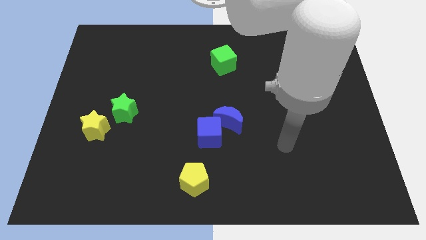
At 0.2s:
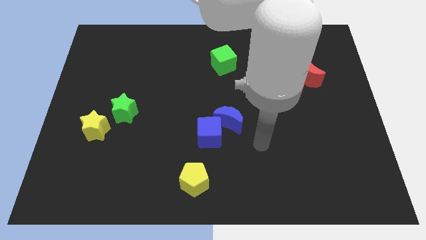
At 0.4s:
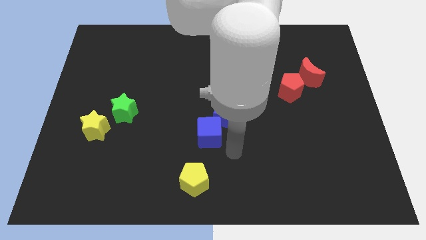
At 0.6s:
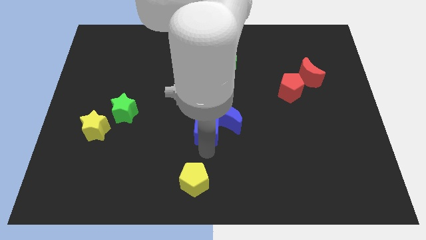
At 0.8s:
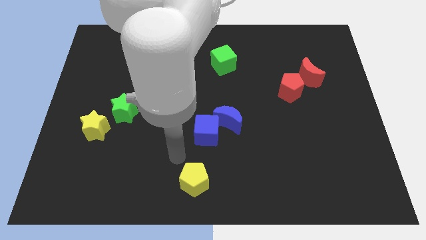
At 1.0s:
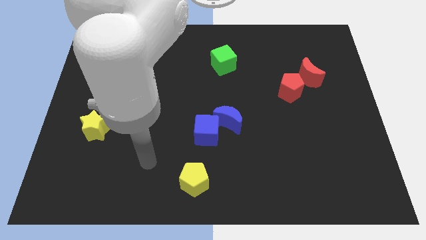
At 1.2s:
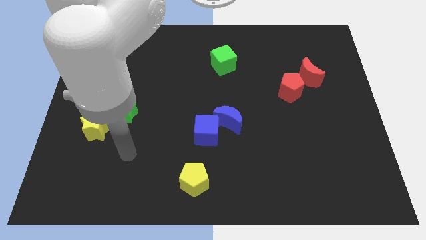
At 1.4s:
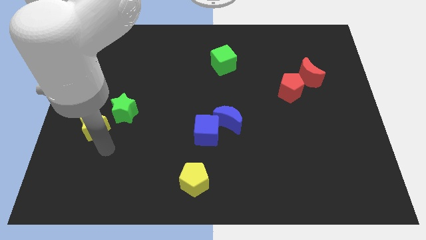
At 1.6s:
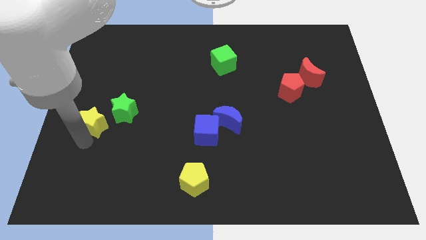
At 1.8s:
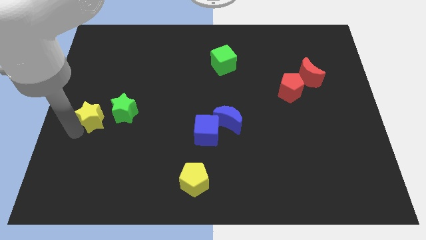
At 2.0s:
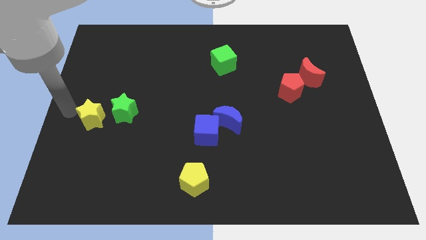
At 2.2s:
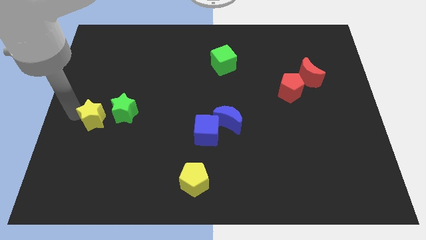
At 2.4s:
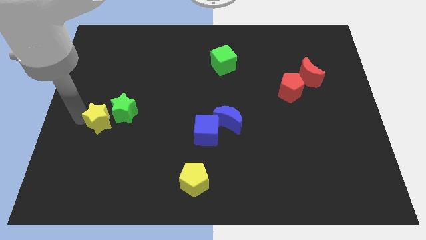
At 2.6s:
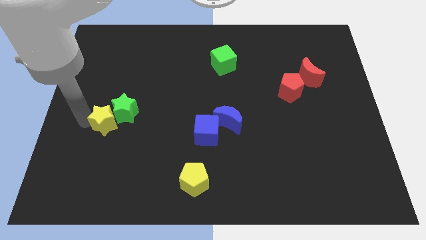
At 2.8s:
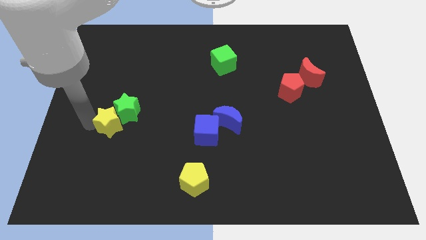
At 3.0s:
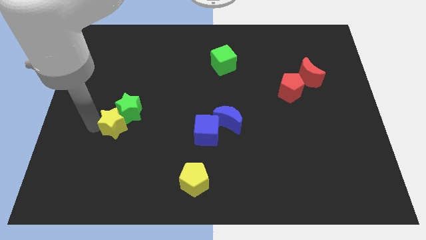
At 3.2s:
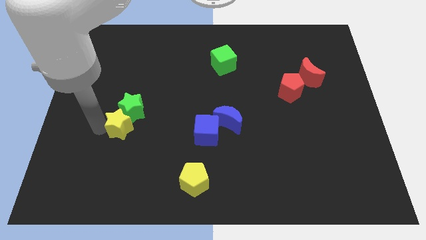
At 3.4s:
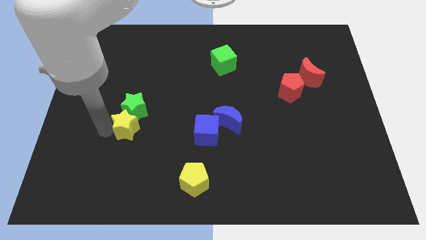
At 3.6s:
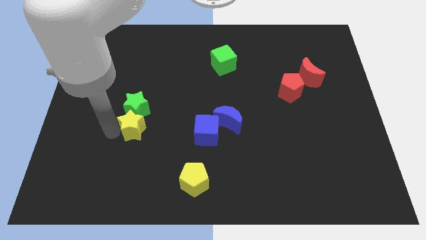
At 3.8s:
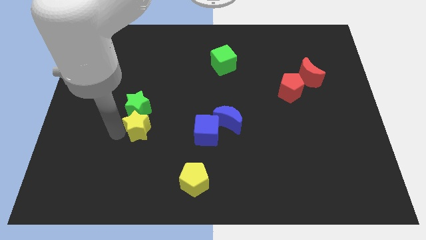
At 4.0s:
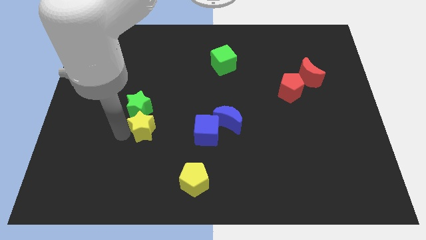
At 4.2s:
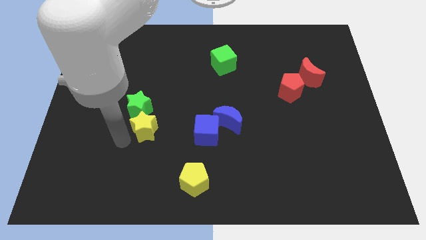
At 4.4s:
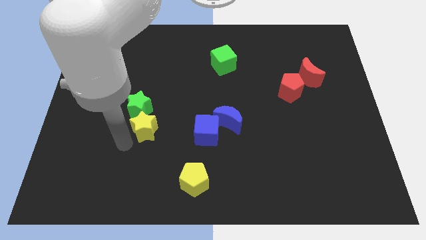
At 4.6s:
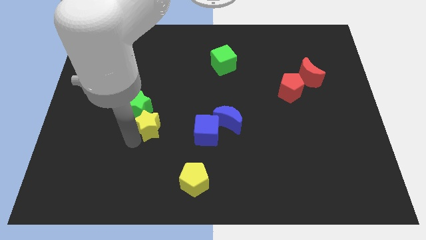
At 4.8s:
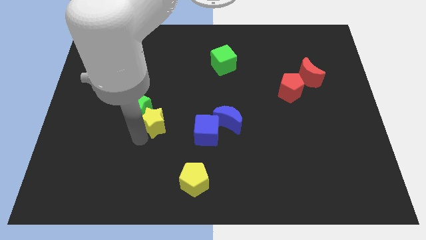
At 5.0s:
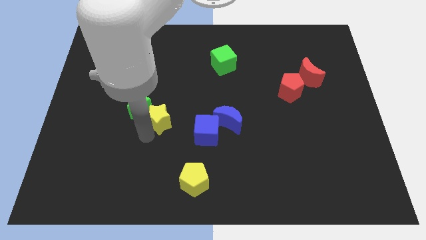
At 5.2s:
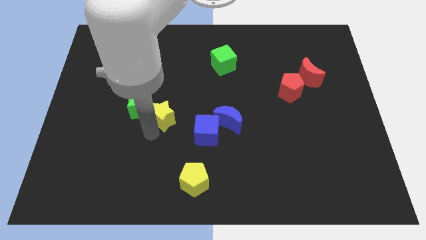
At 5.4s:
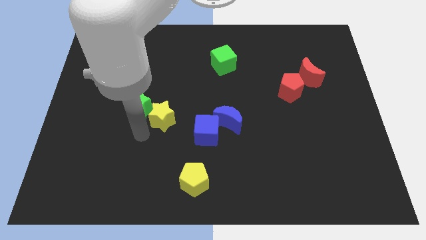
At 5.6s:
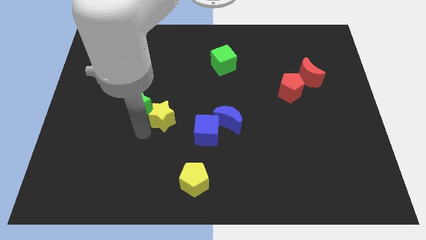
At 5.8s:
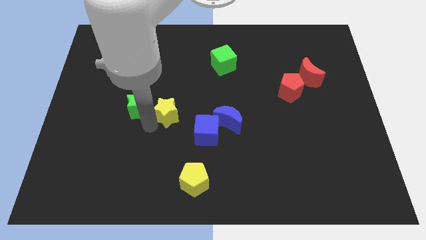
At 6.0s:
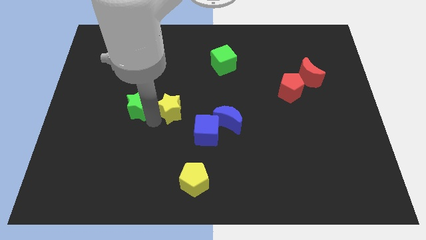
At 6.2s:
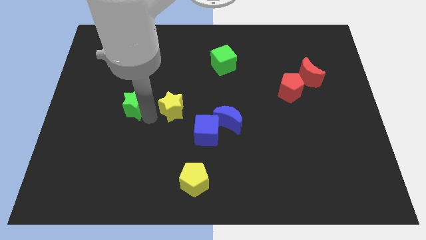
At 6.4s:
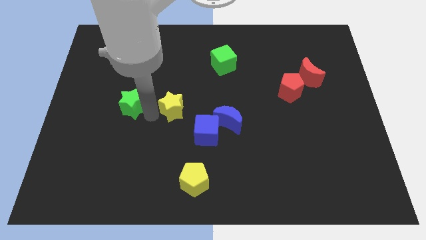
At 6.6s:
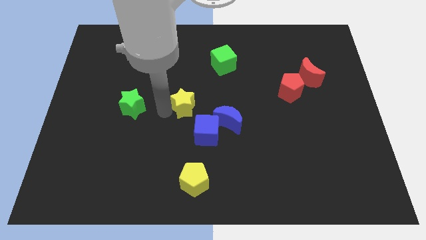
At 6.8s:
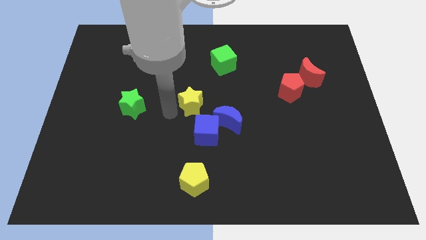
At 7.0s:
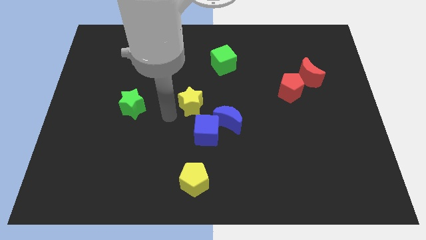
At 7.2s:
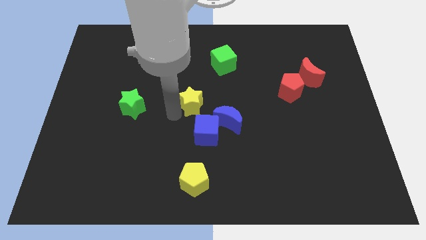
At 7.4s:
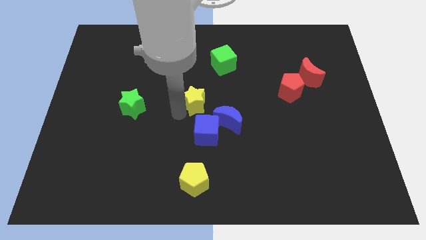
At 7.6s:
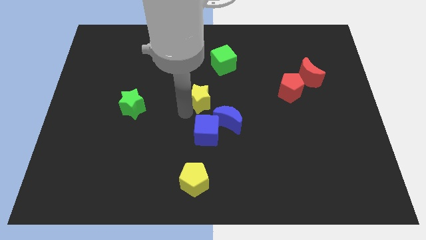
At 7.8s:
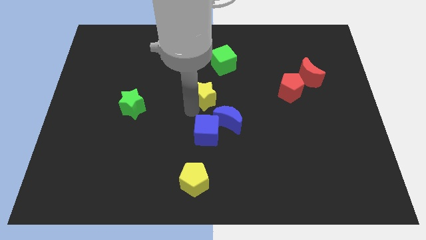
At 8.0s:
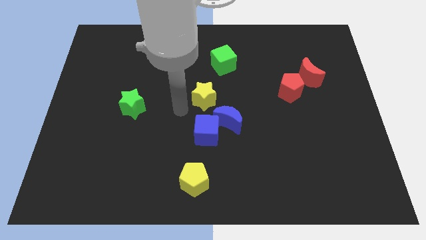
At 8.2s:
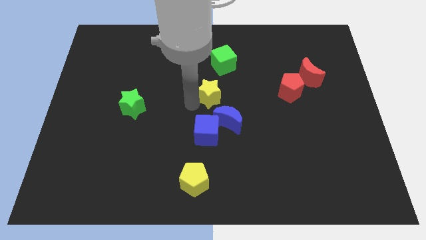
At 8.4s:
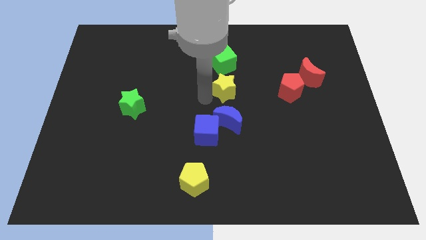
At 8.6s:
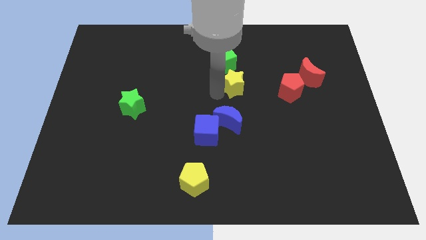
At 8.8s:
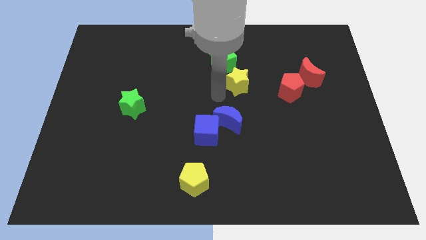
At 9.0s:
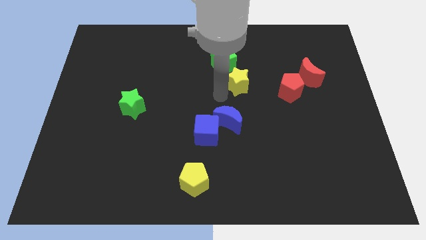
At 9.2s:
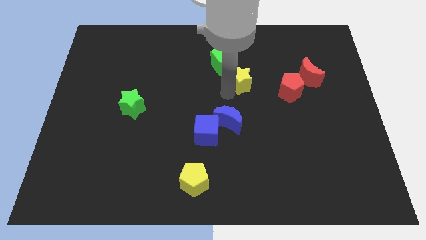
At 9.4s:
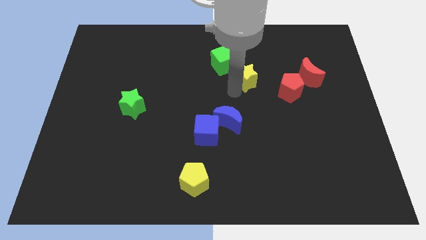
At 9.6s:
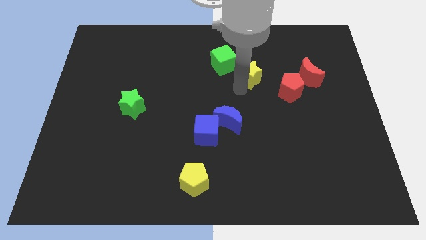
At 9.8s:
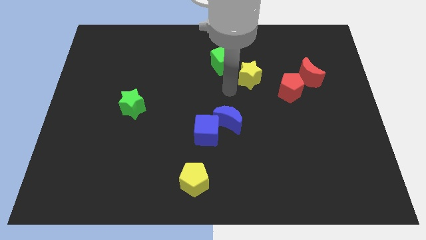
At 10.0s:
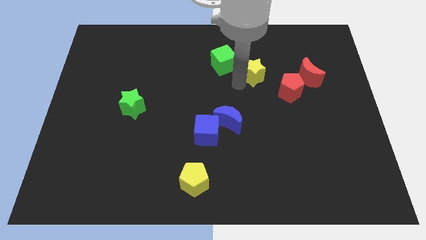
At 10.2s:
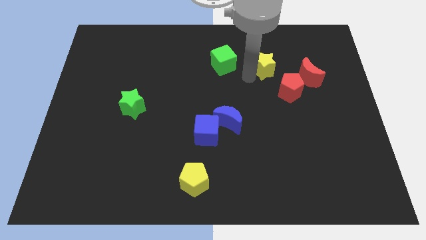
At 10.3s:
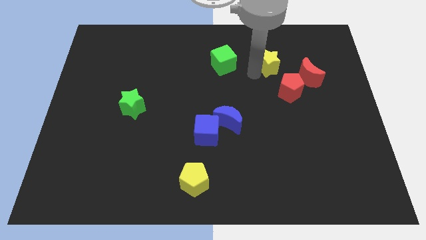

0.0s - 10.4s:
put the yellow star above the red pentagon

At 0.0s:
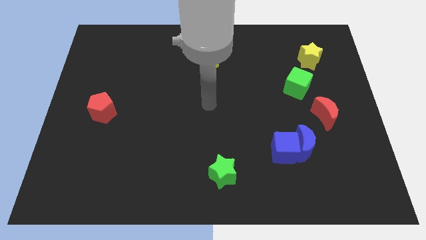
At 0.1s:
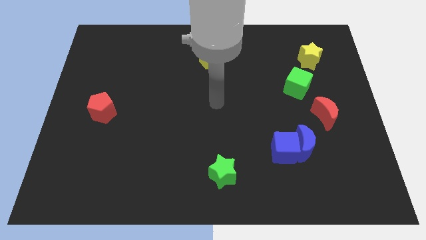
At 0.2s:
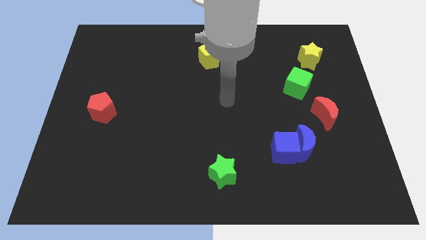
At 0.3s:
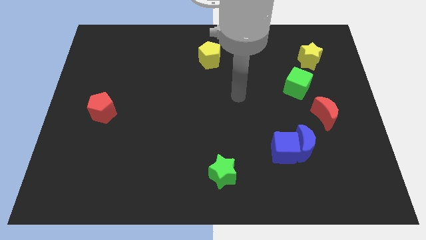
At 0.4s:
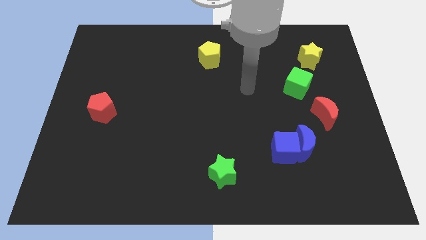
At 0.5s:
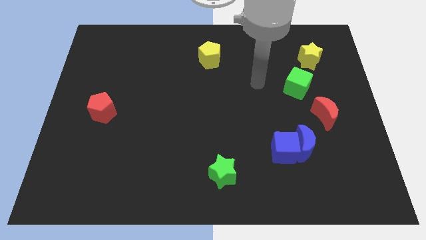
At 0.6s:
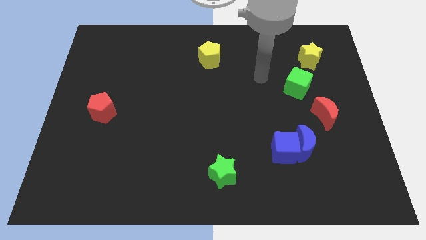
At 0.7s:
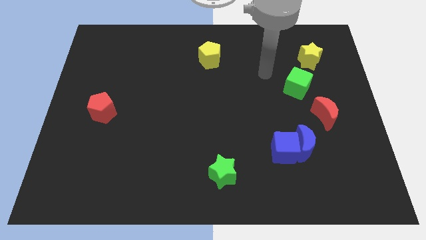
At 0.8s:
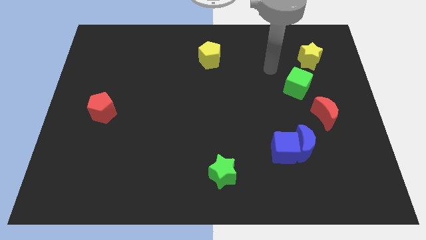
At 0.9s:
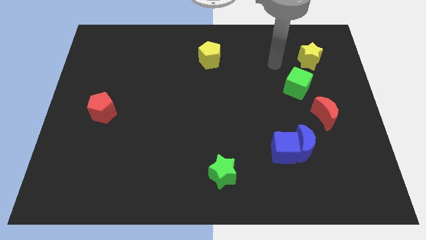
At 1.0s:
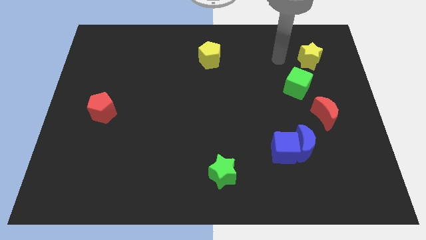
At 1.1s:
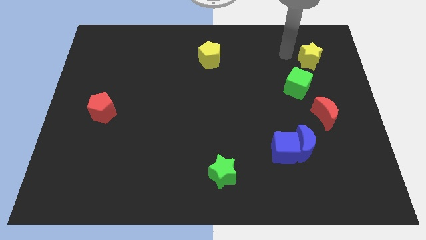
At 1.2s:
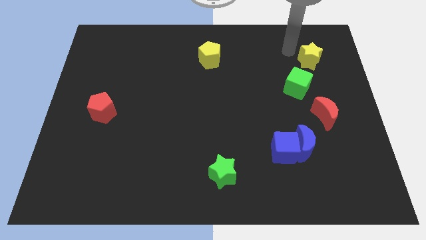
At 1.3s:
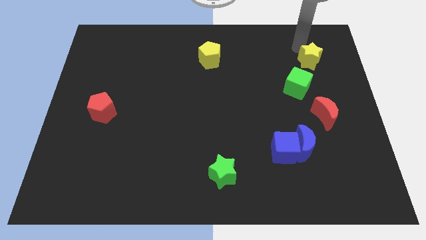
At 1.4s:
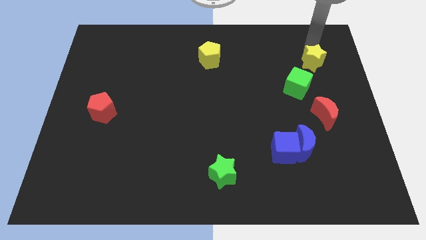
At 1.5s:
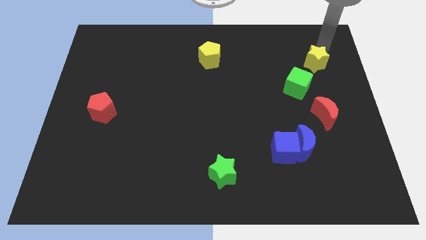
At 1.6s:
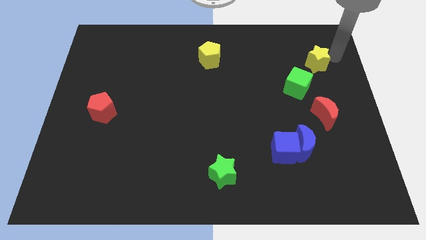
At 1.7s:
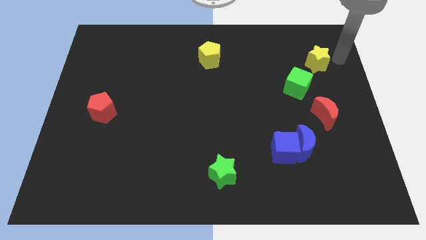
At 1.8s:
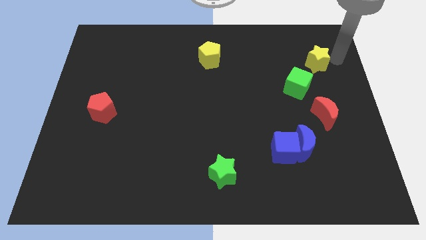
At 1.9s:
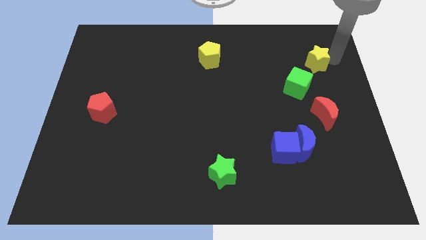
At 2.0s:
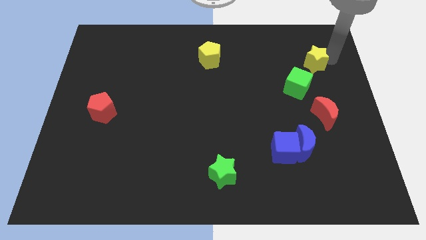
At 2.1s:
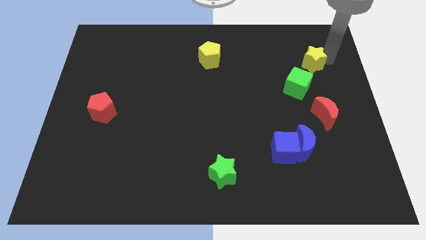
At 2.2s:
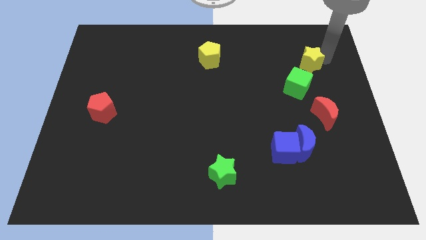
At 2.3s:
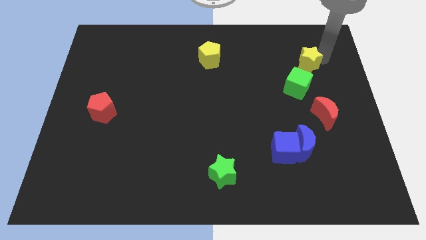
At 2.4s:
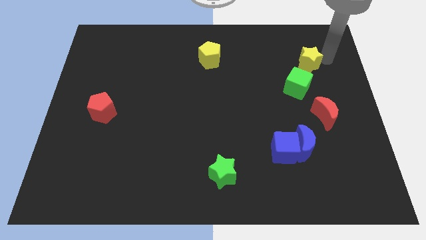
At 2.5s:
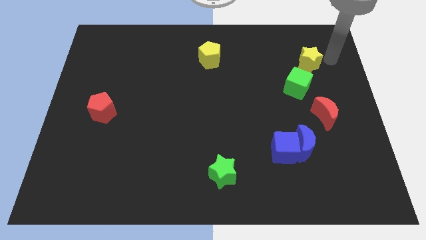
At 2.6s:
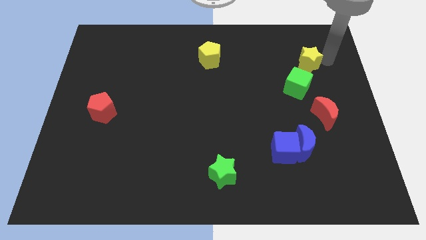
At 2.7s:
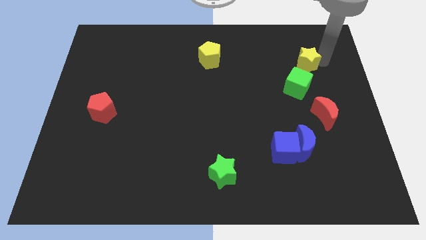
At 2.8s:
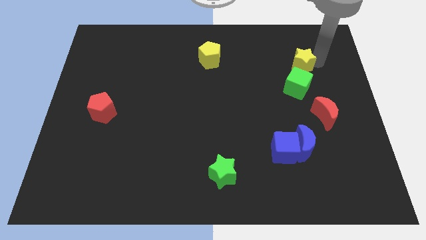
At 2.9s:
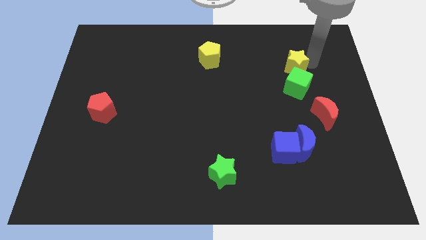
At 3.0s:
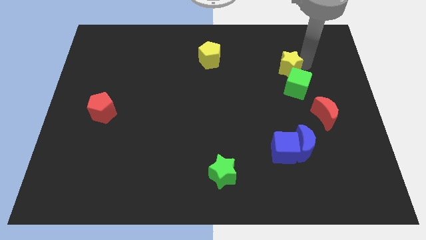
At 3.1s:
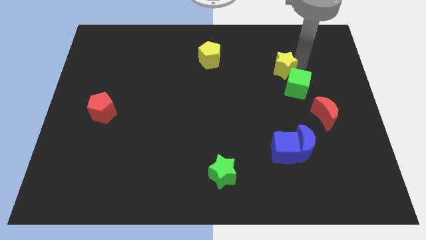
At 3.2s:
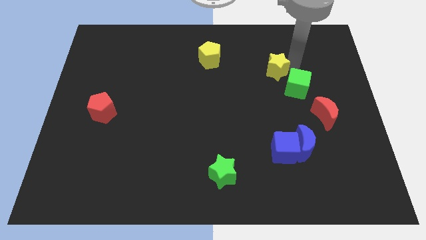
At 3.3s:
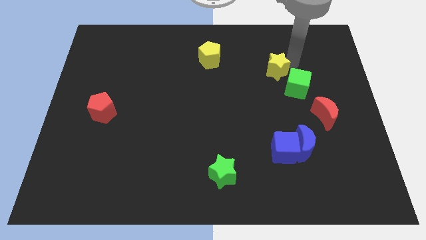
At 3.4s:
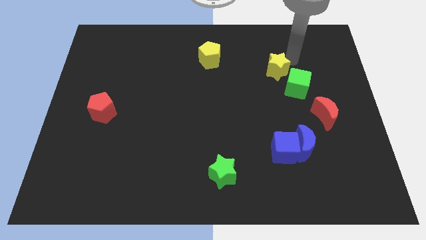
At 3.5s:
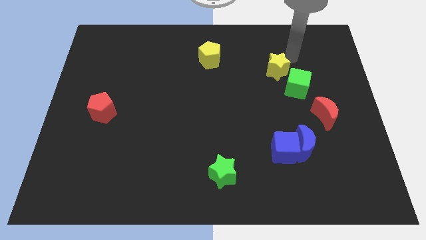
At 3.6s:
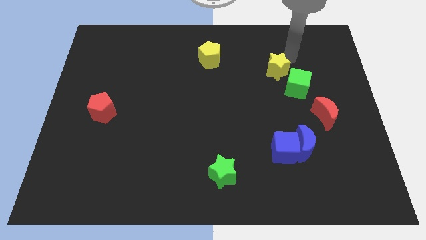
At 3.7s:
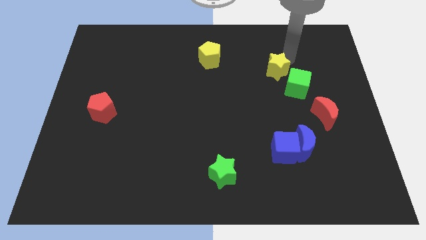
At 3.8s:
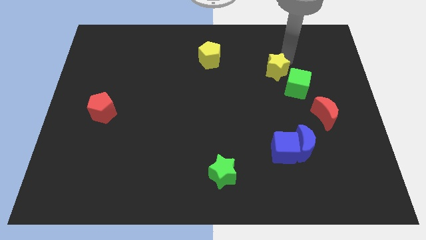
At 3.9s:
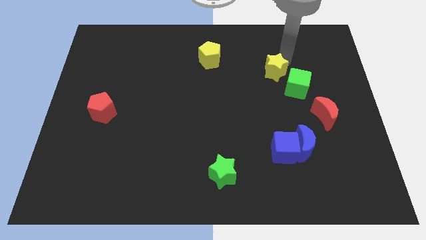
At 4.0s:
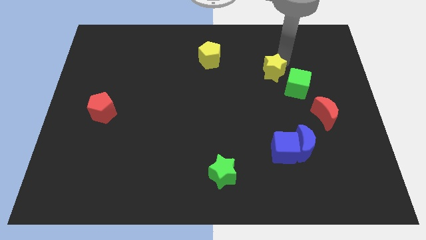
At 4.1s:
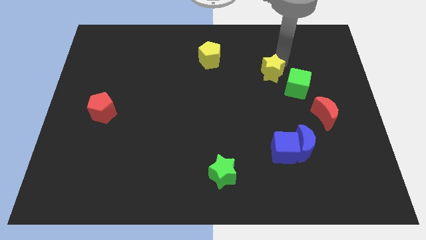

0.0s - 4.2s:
put the yellow star to the left of the green cube
